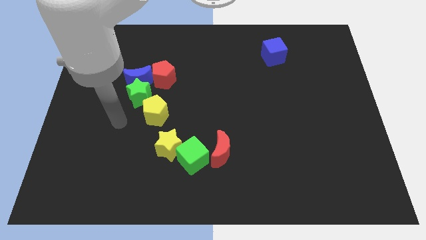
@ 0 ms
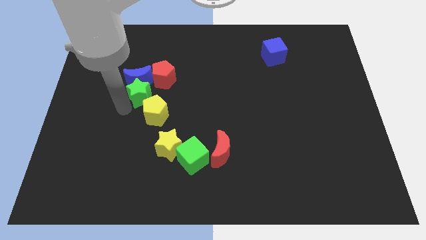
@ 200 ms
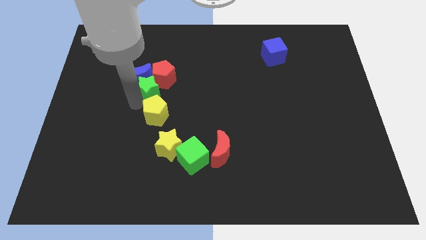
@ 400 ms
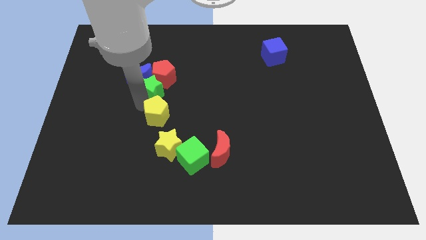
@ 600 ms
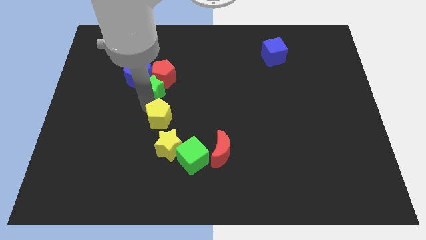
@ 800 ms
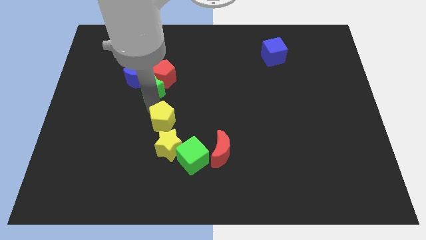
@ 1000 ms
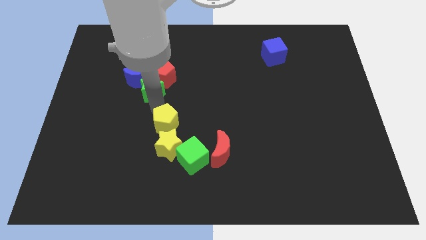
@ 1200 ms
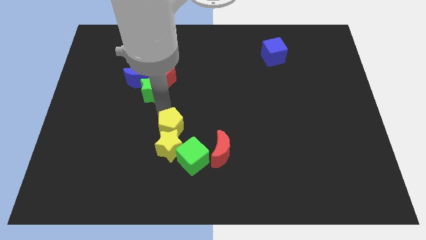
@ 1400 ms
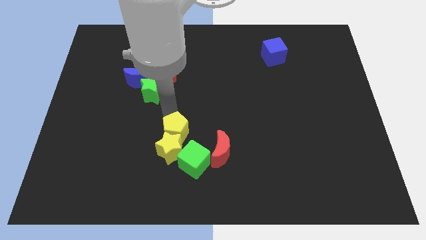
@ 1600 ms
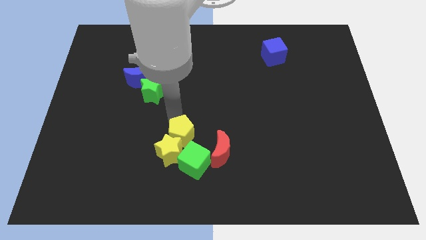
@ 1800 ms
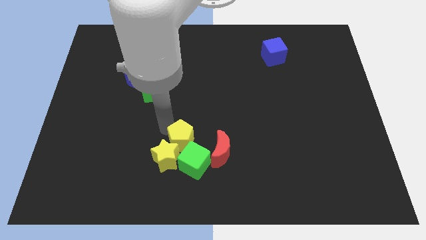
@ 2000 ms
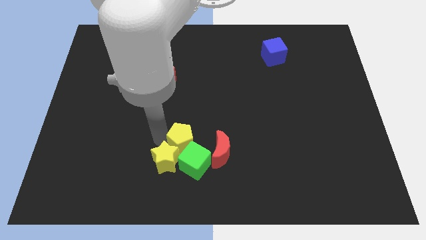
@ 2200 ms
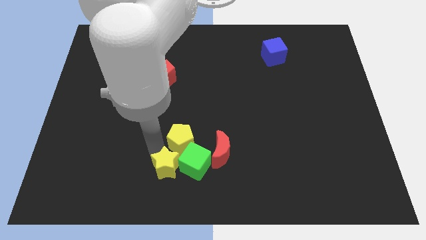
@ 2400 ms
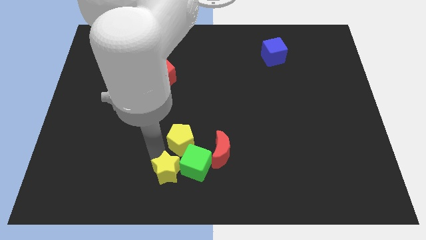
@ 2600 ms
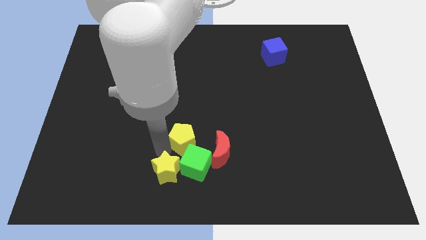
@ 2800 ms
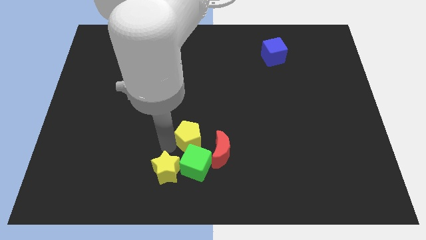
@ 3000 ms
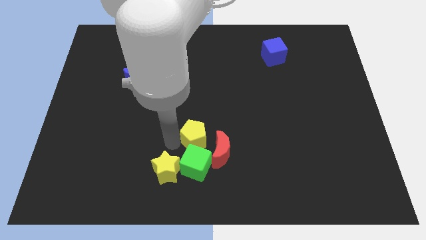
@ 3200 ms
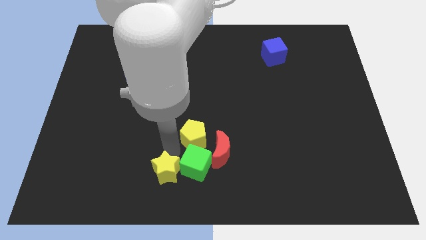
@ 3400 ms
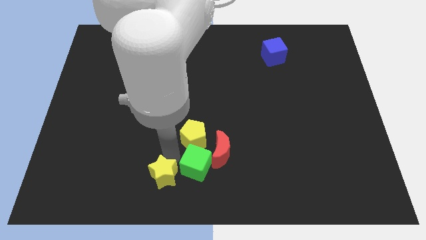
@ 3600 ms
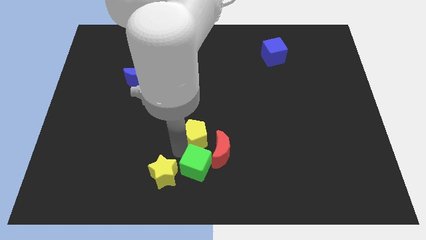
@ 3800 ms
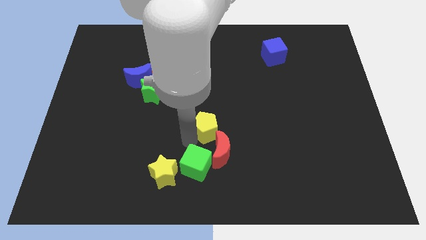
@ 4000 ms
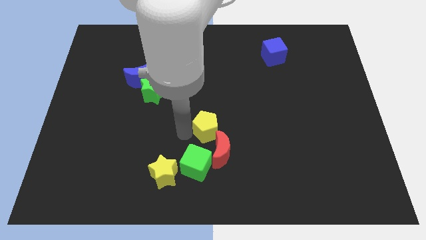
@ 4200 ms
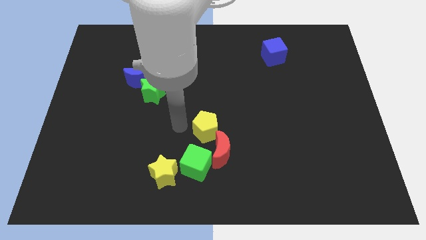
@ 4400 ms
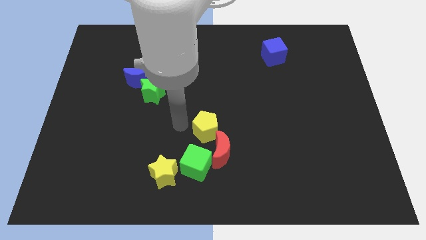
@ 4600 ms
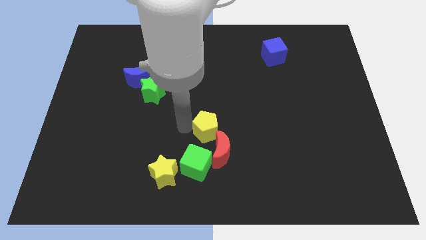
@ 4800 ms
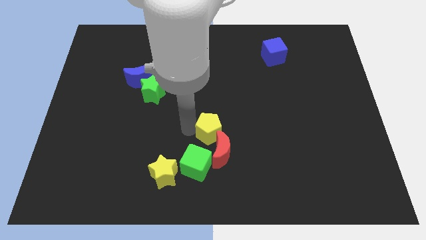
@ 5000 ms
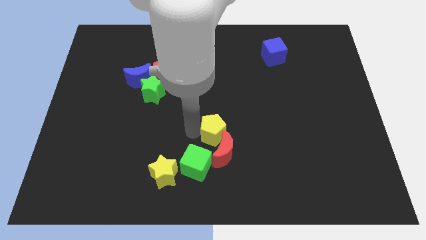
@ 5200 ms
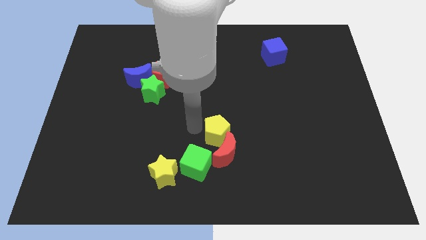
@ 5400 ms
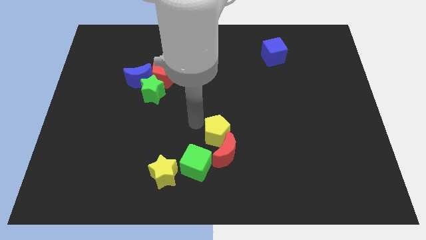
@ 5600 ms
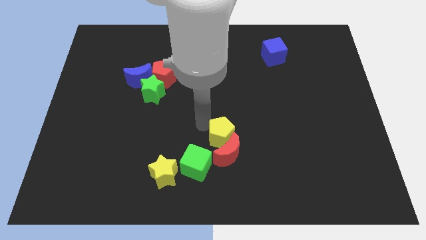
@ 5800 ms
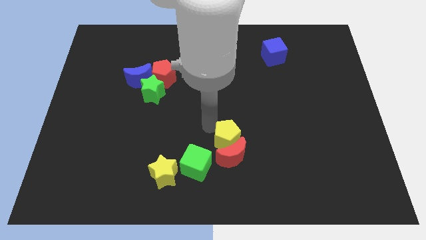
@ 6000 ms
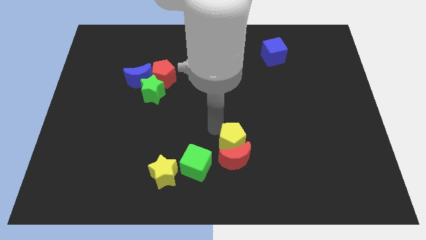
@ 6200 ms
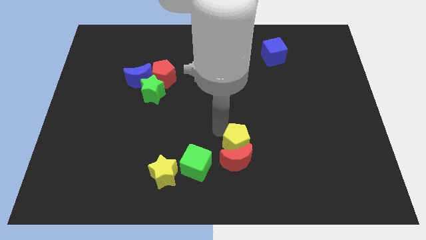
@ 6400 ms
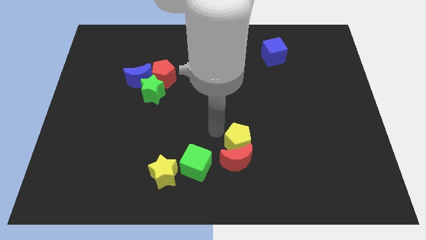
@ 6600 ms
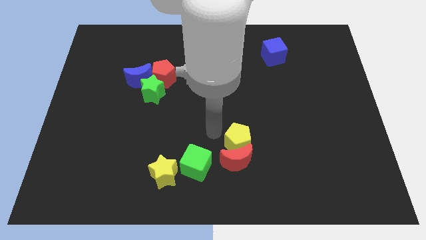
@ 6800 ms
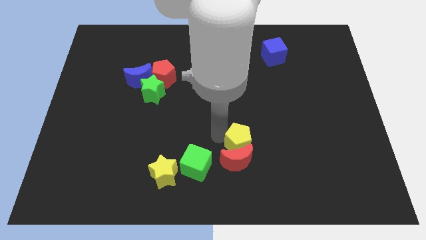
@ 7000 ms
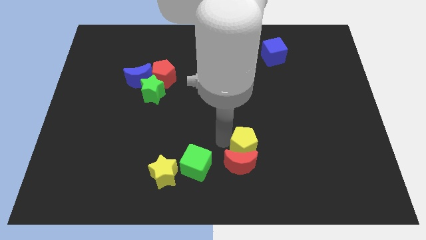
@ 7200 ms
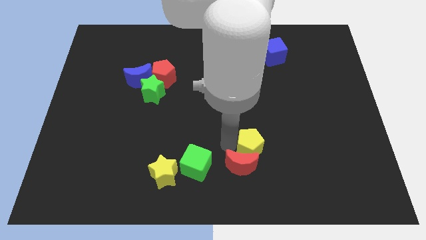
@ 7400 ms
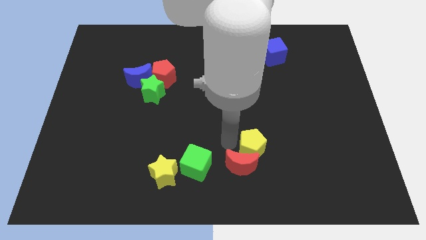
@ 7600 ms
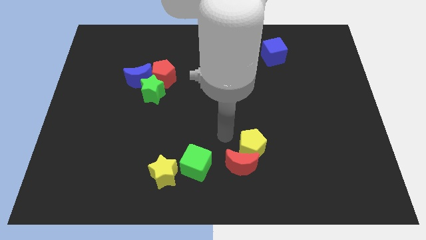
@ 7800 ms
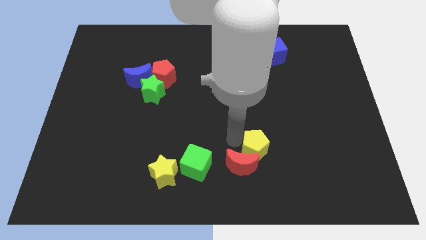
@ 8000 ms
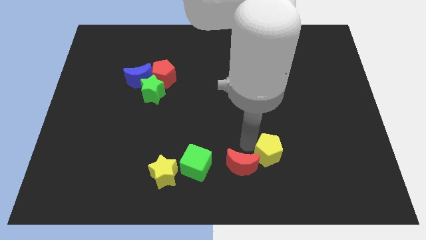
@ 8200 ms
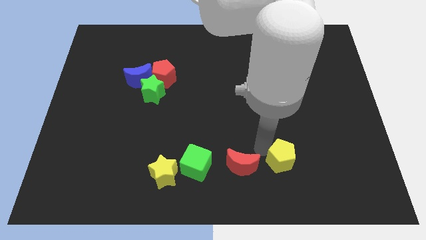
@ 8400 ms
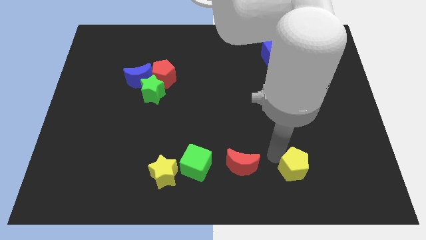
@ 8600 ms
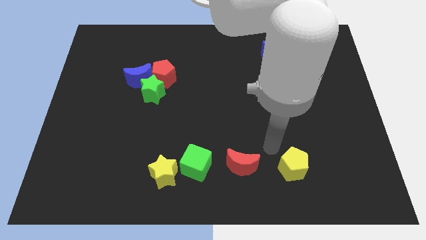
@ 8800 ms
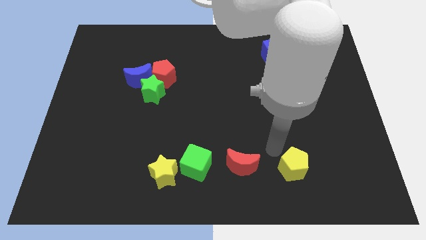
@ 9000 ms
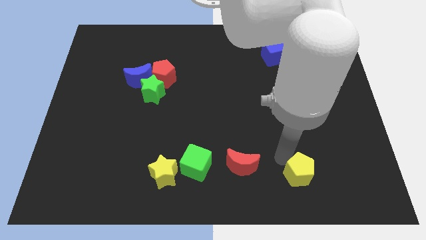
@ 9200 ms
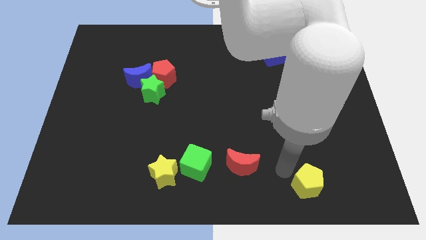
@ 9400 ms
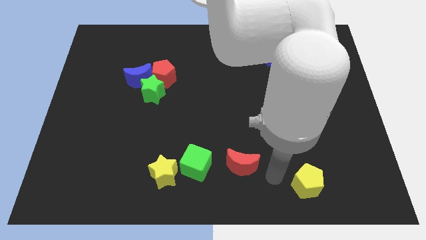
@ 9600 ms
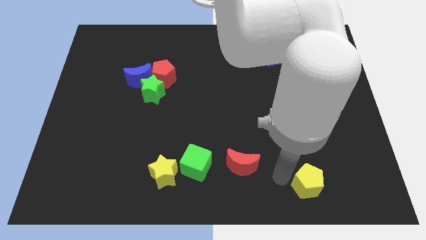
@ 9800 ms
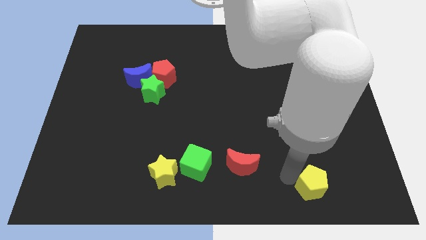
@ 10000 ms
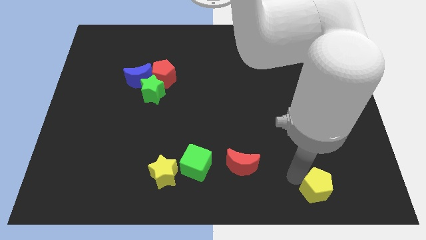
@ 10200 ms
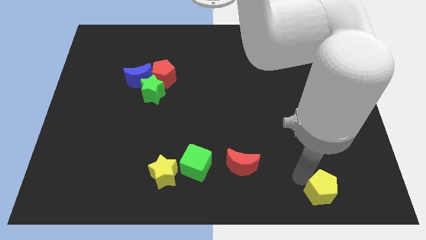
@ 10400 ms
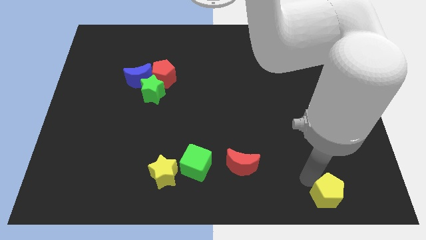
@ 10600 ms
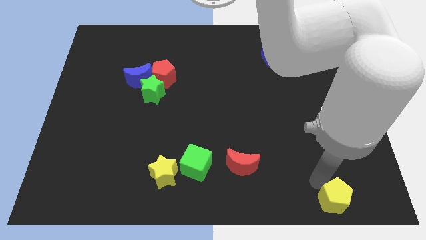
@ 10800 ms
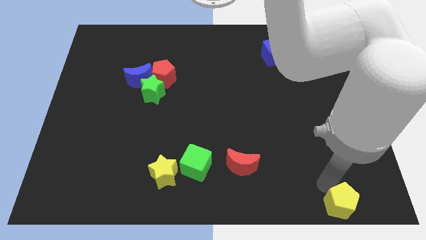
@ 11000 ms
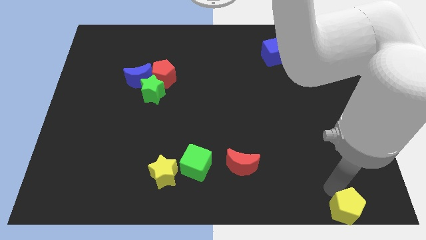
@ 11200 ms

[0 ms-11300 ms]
move the yellow pentagon to the bottom right of the board
